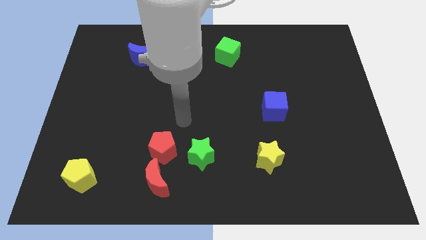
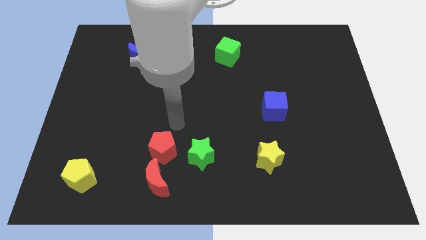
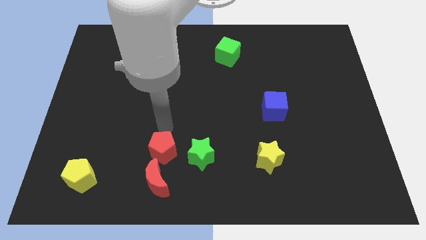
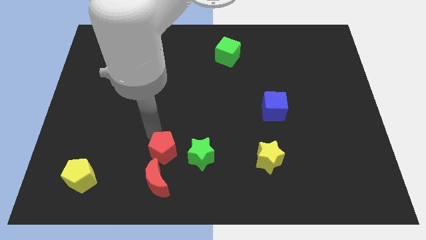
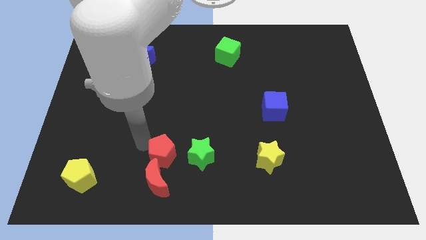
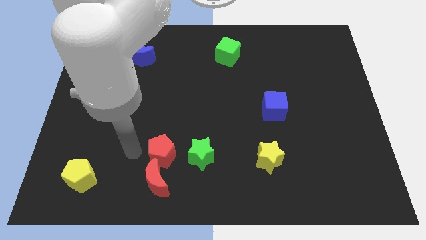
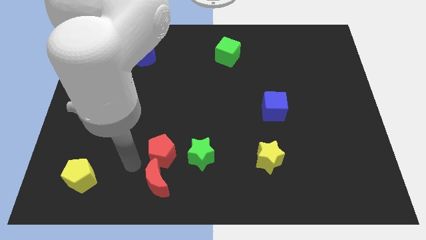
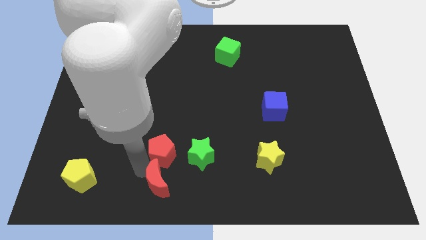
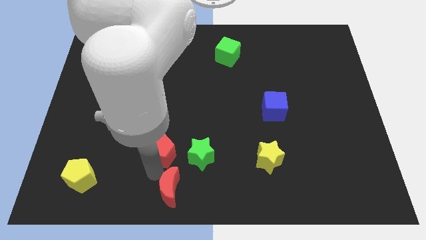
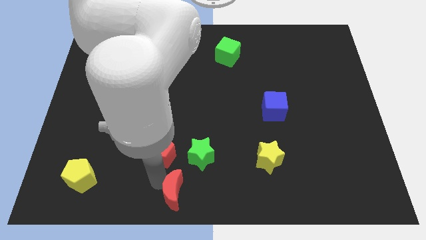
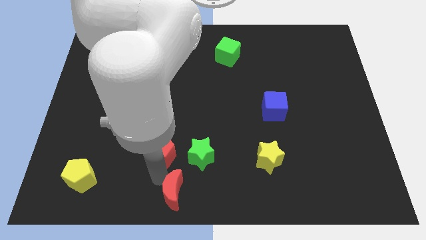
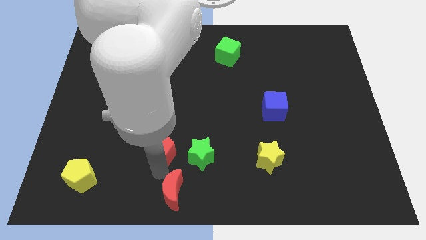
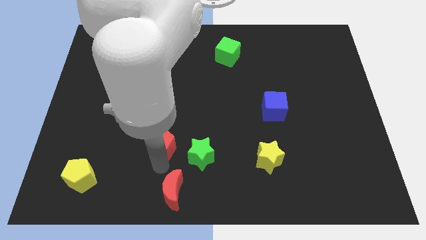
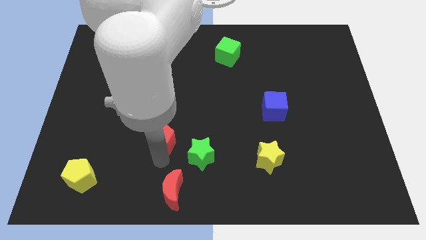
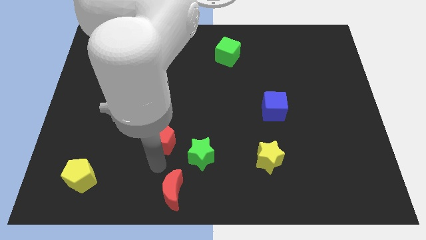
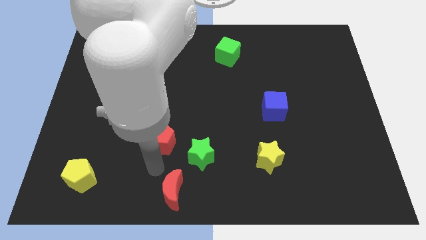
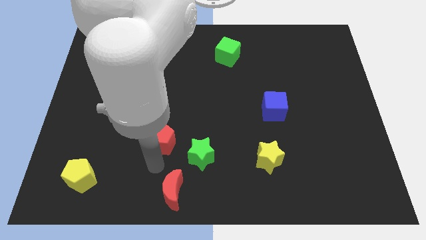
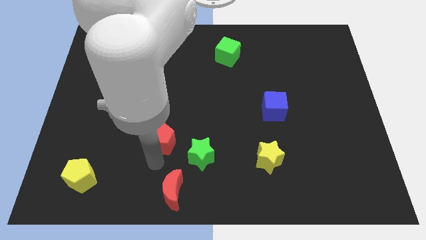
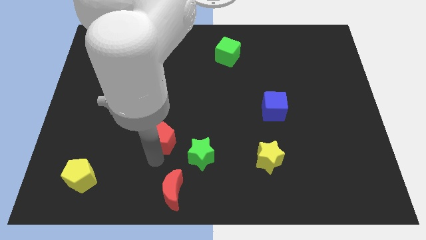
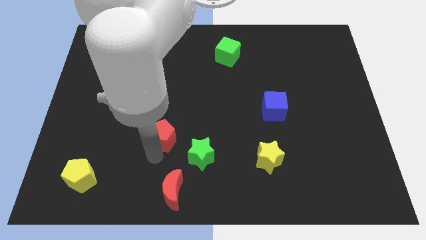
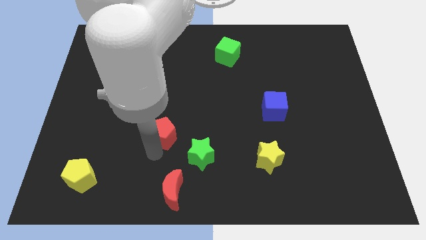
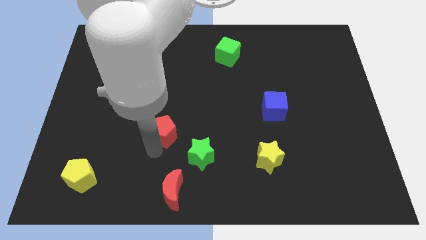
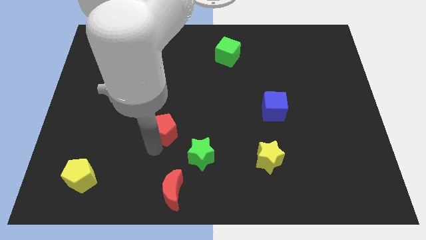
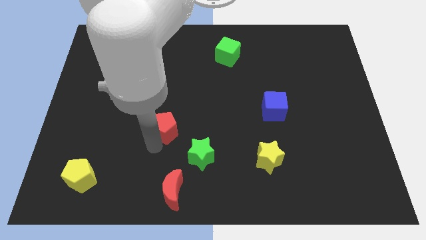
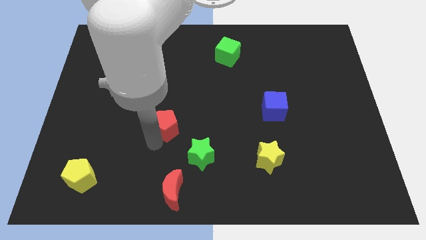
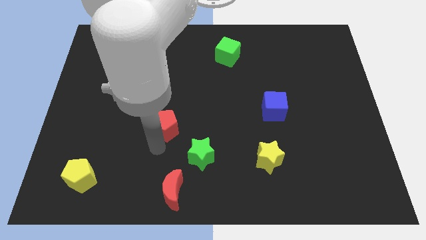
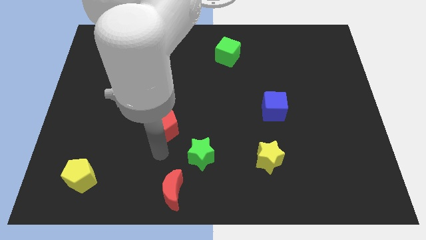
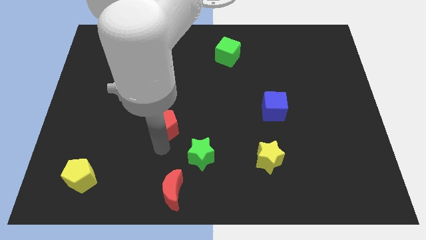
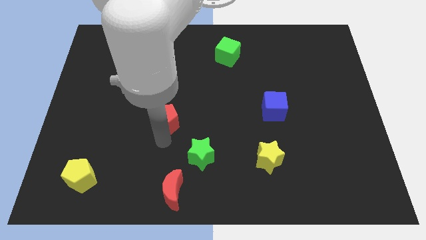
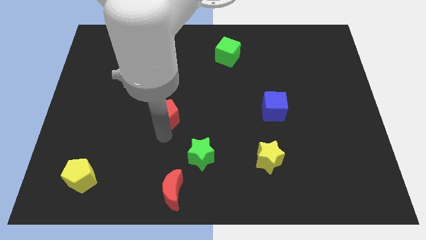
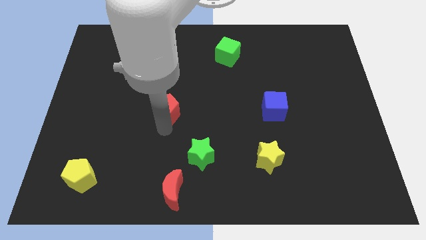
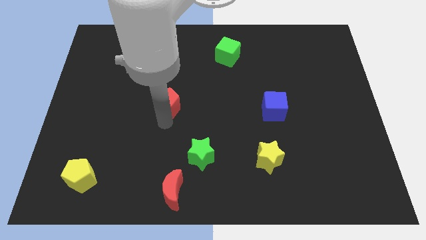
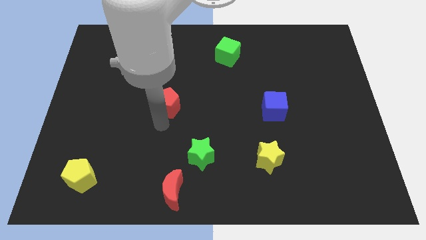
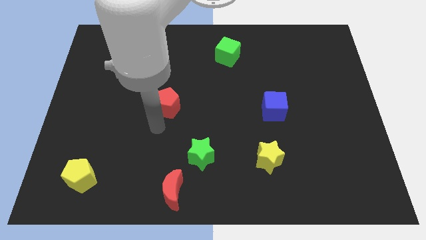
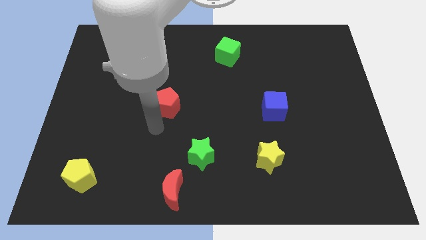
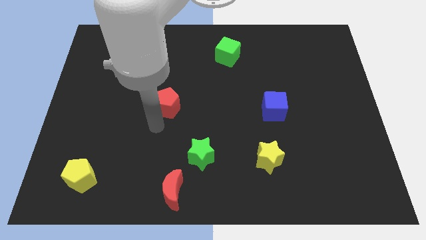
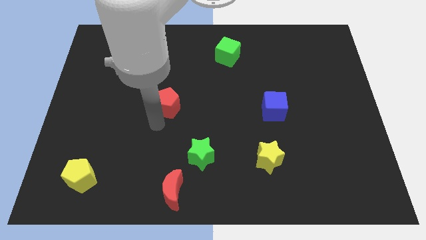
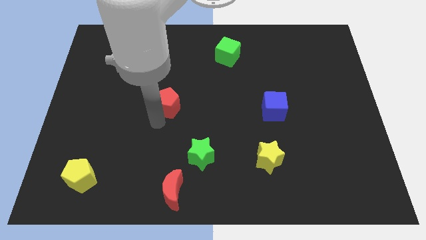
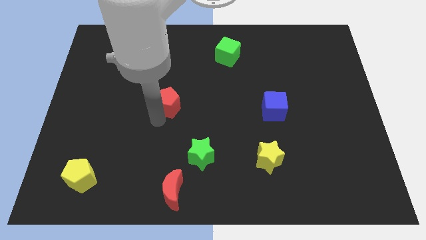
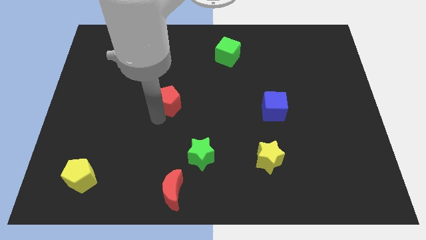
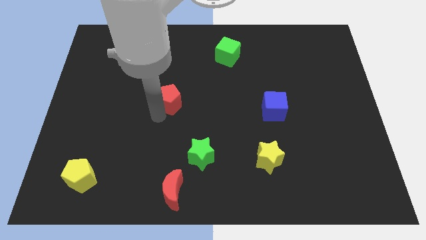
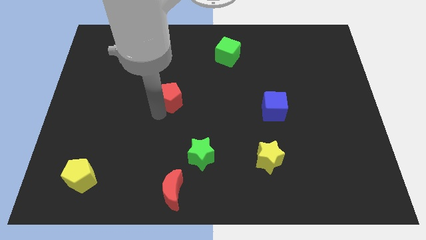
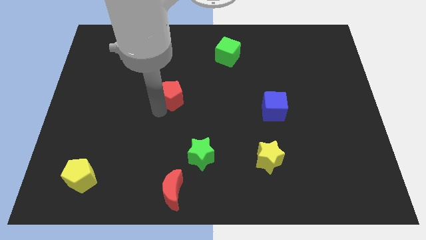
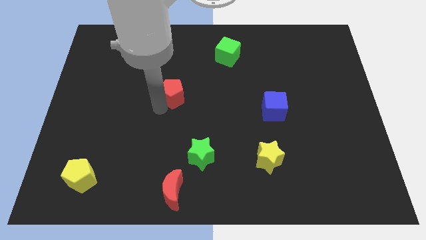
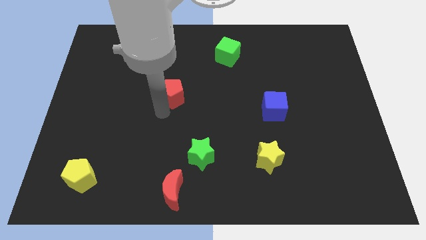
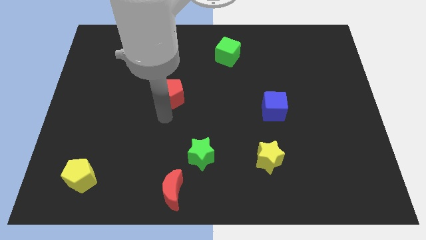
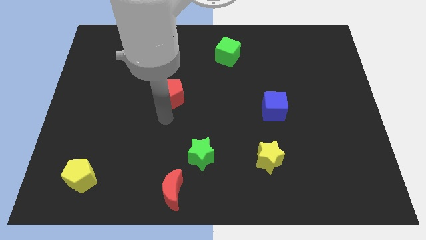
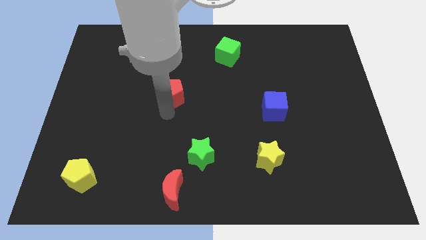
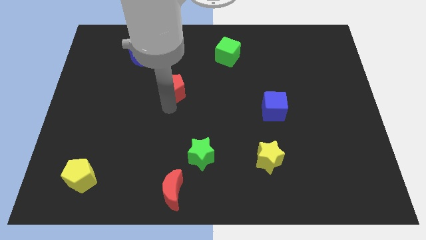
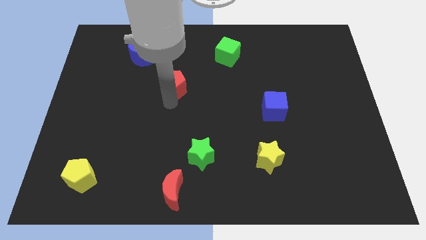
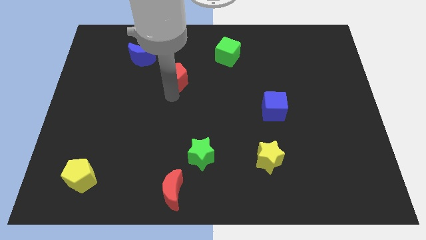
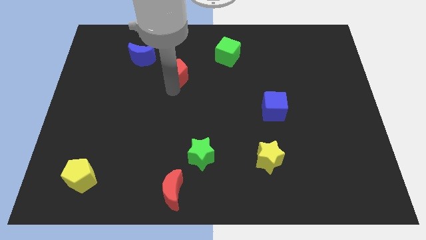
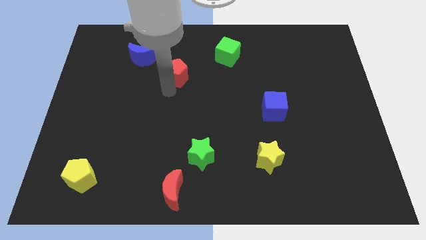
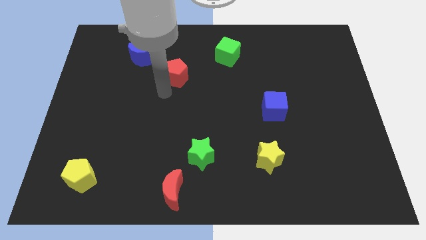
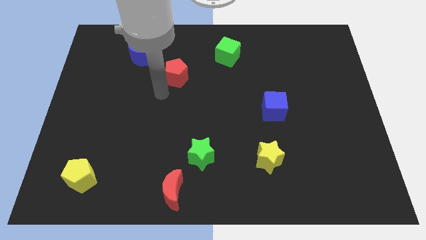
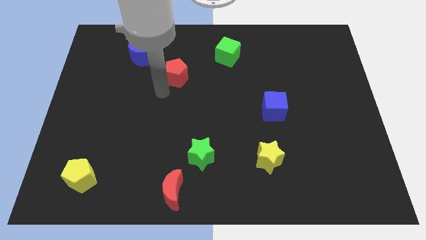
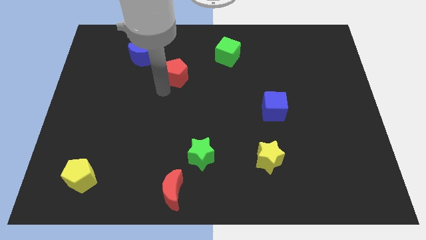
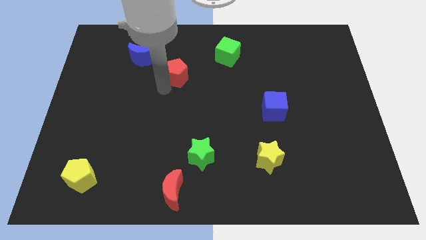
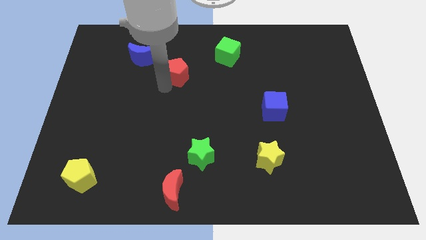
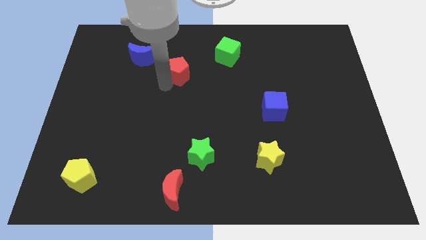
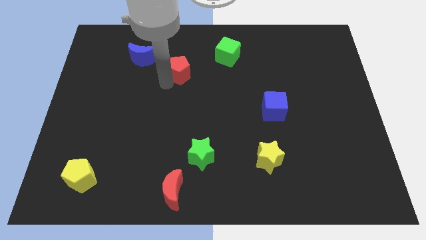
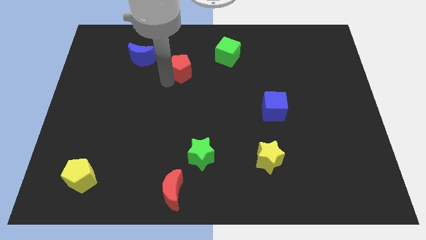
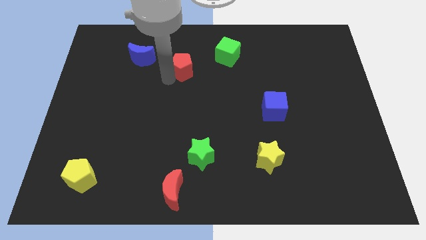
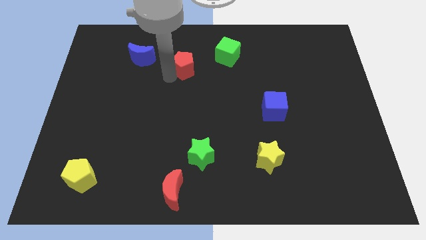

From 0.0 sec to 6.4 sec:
move the red pentagon to the left of the green cube
